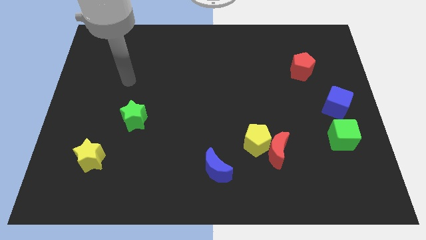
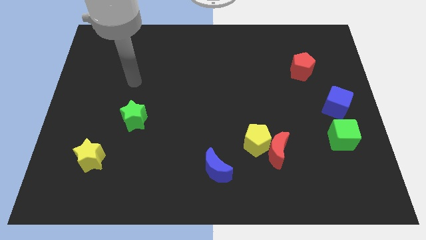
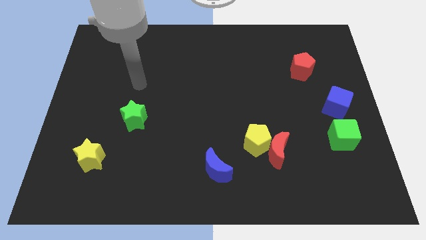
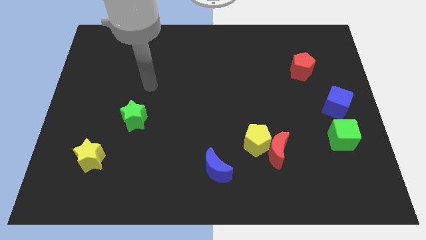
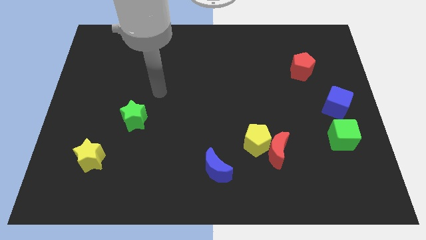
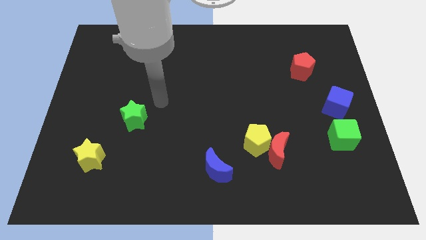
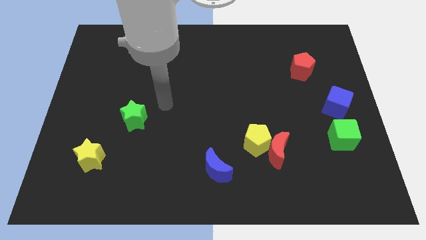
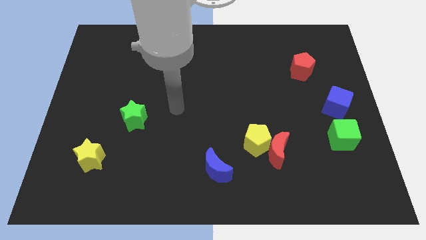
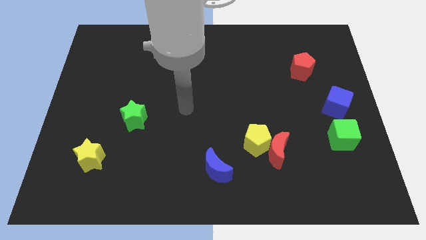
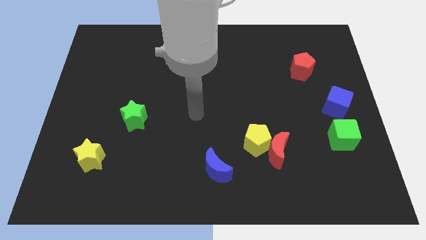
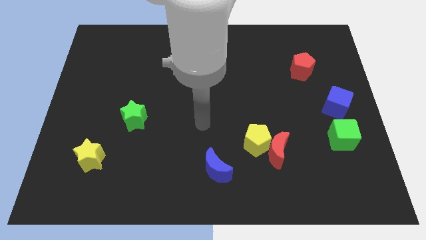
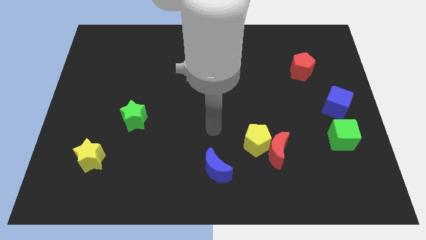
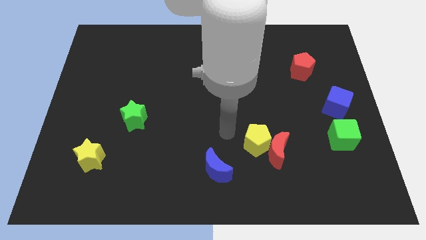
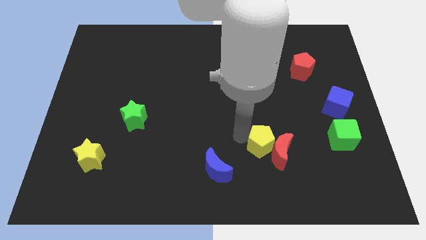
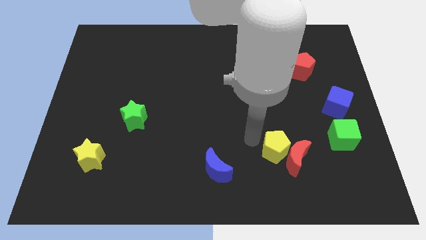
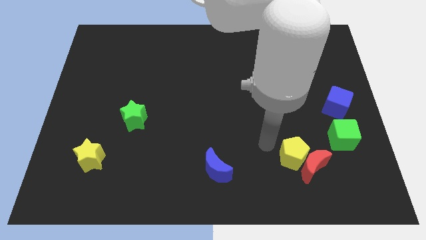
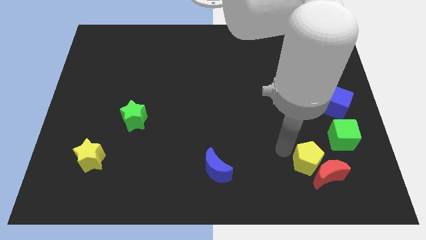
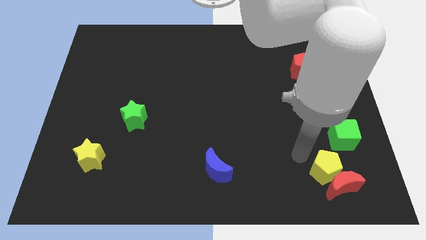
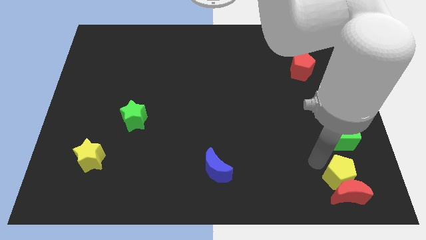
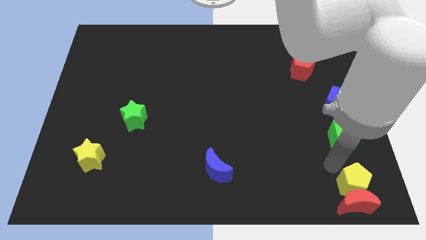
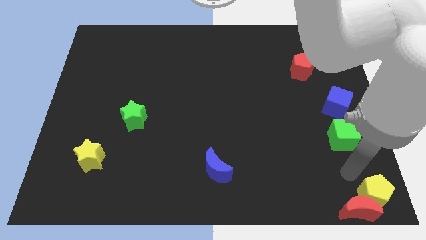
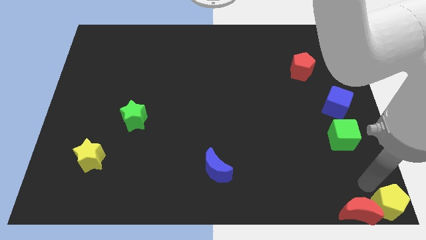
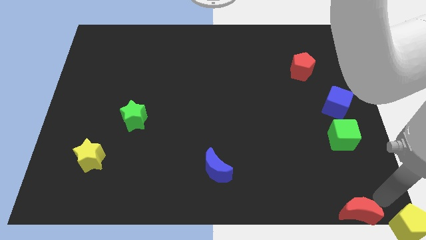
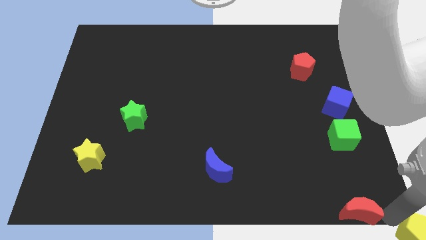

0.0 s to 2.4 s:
separate the red moon from the yellow pentagon

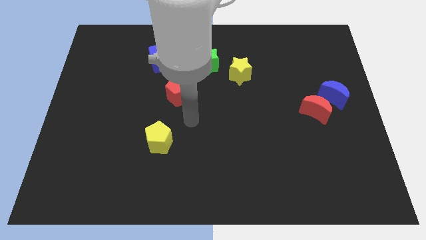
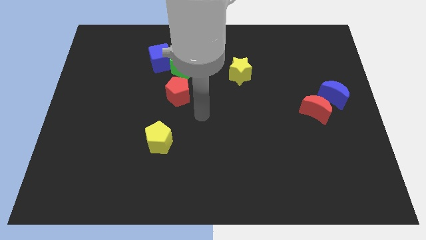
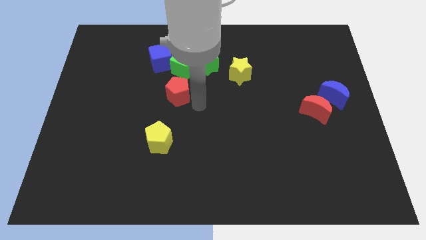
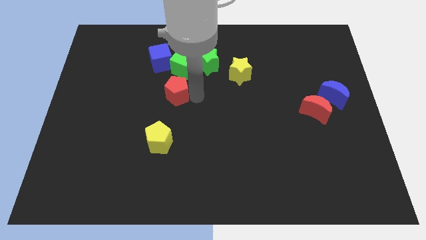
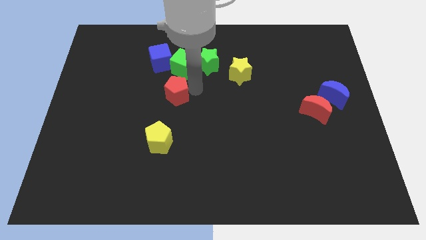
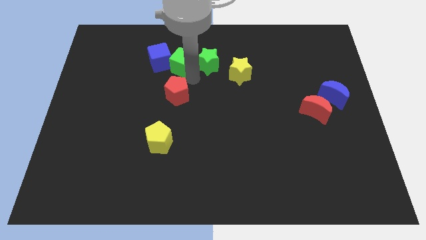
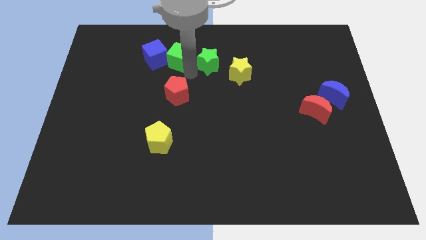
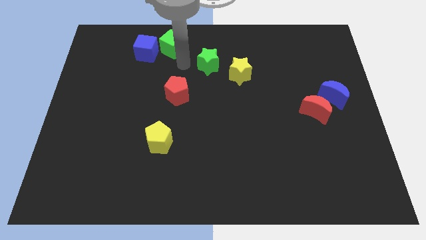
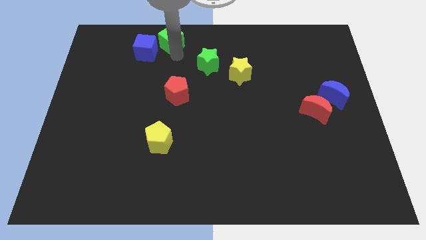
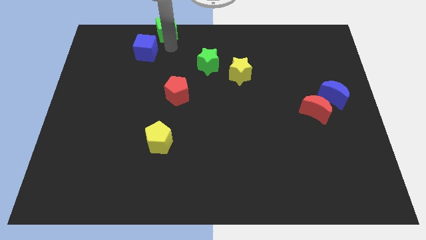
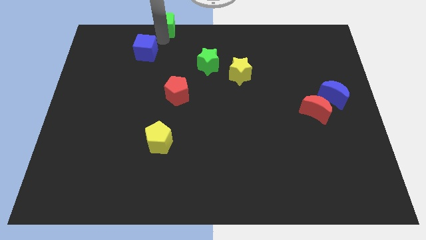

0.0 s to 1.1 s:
move the blue cube away from the green cube

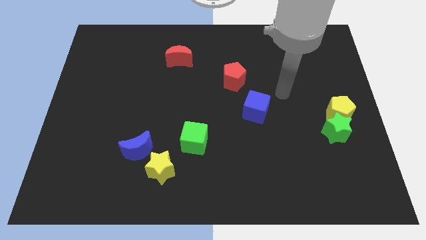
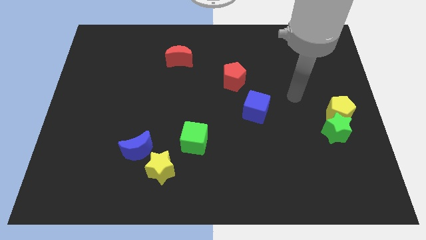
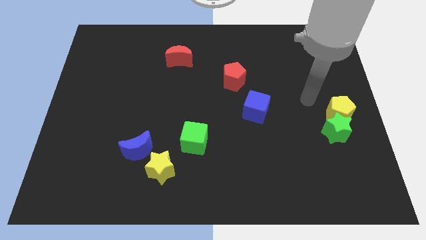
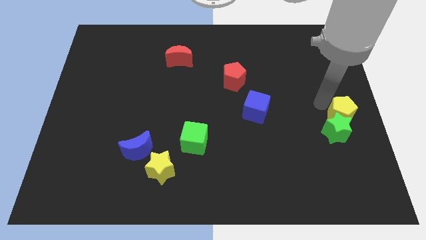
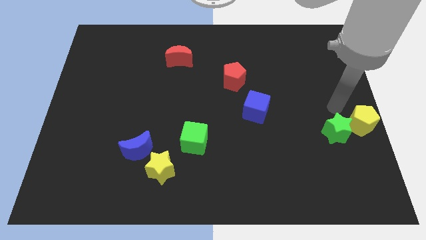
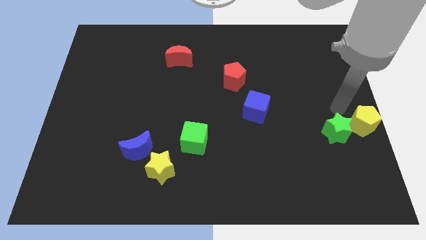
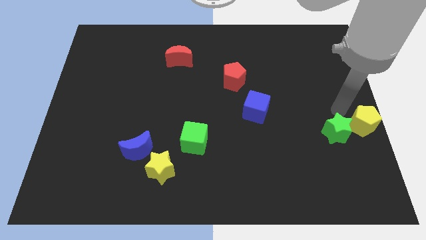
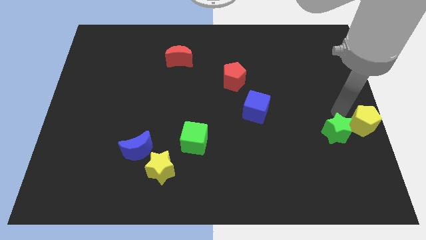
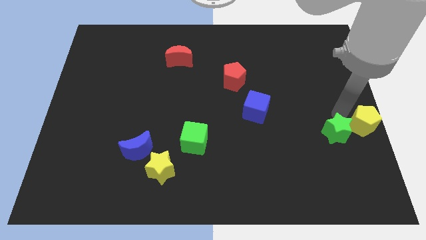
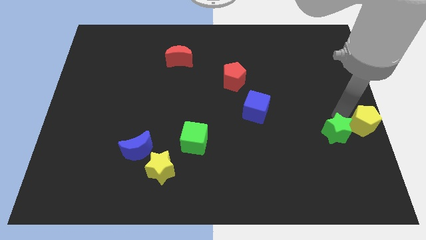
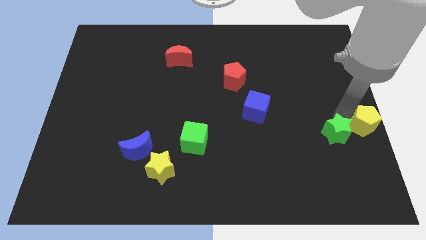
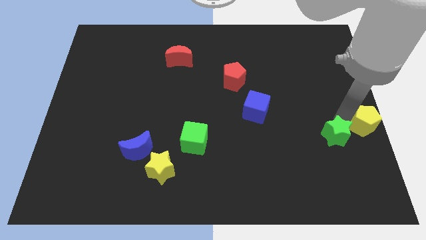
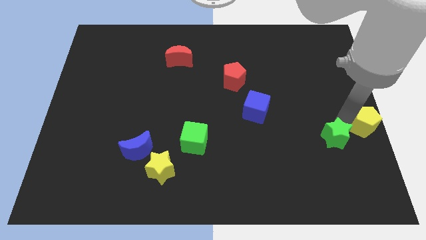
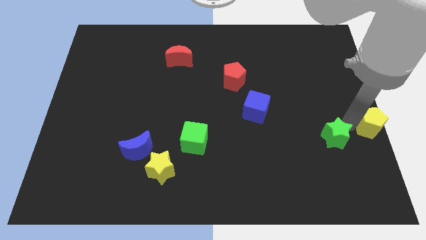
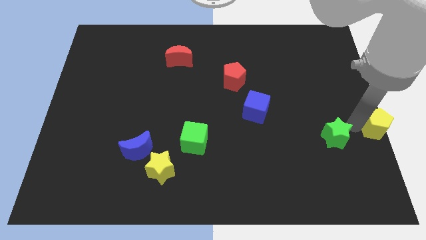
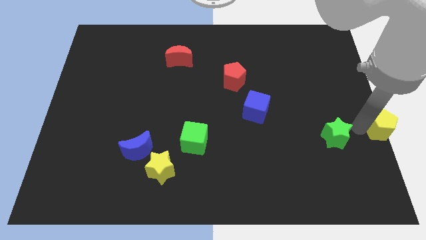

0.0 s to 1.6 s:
separate the green star from the yellow pentagon

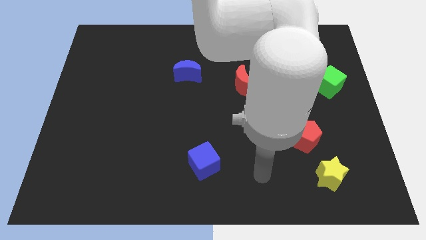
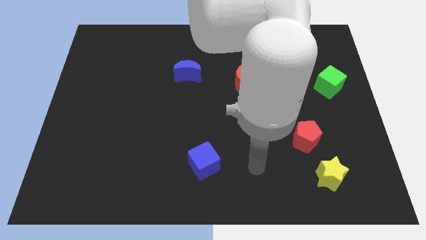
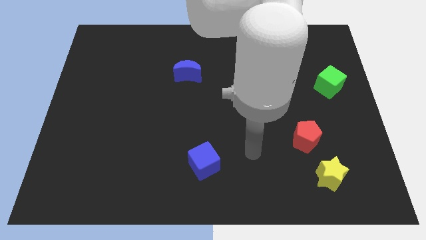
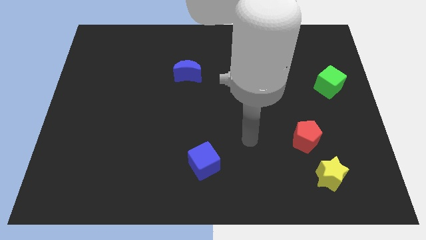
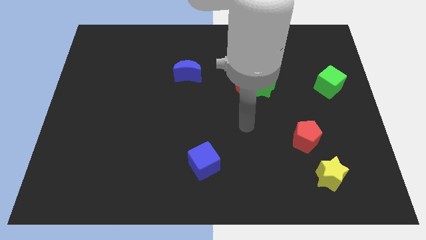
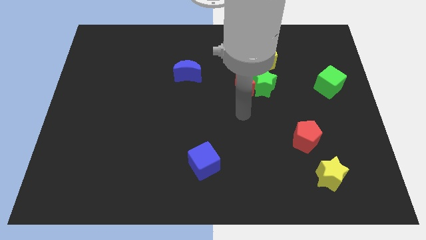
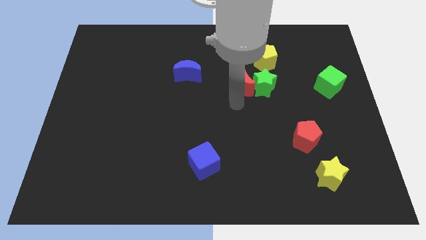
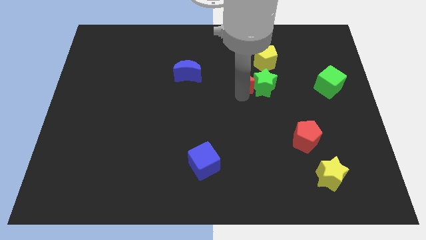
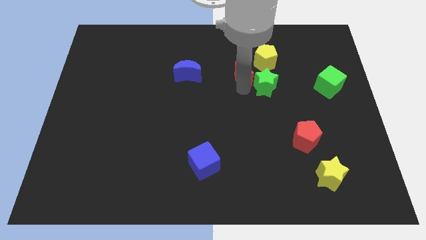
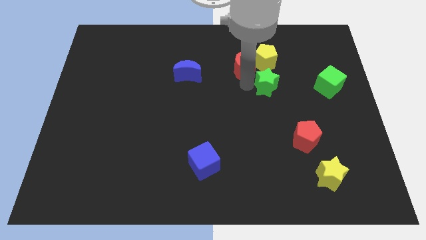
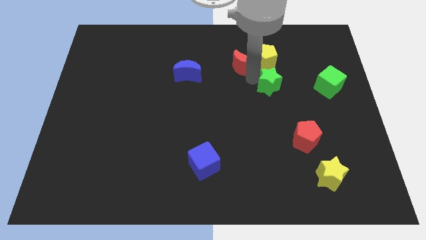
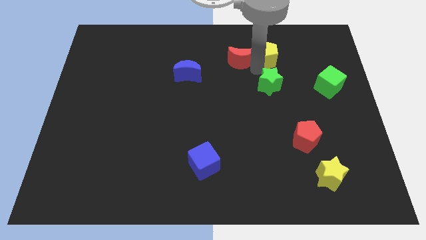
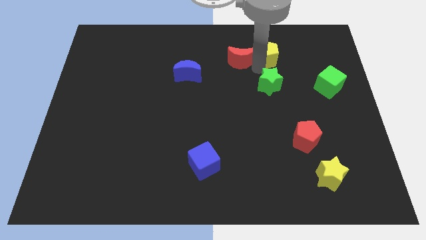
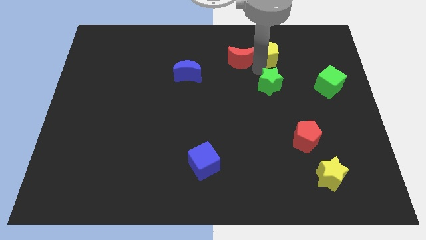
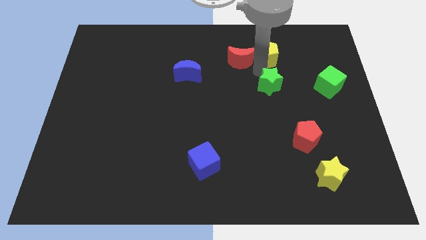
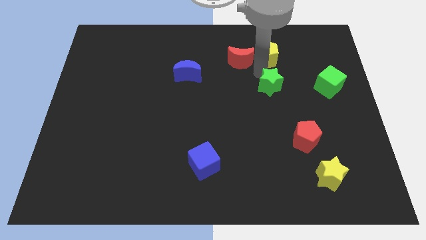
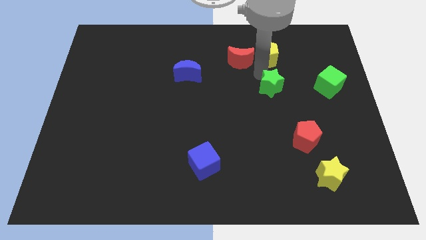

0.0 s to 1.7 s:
pull the green star apart from the red moon and yellow pentagon

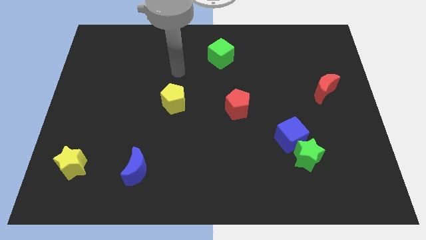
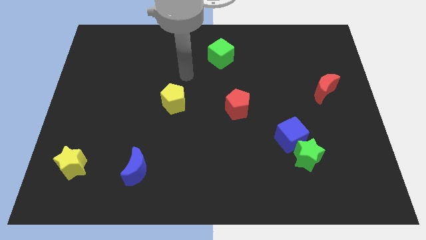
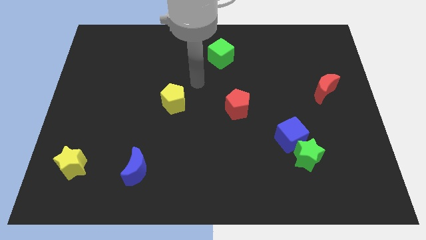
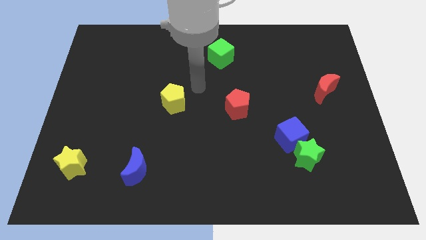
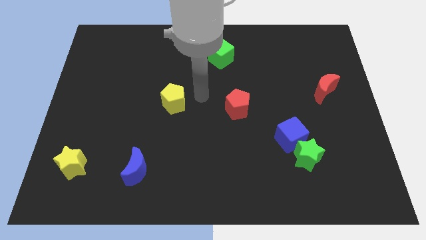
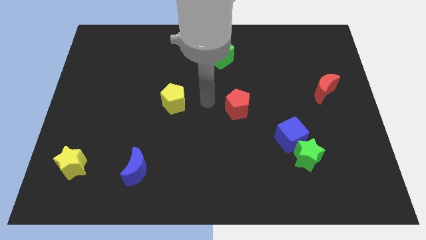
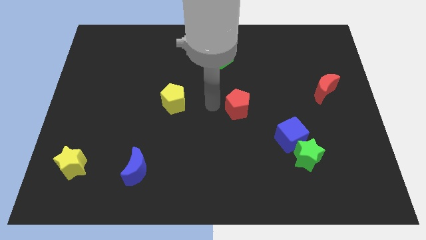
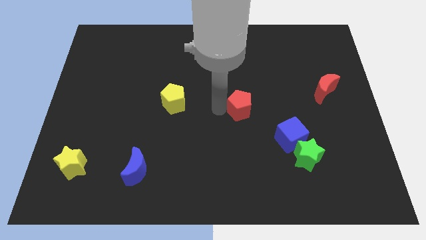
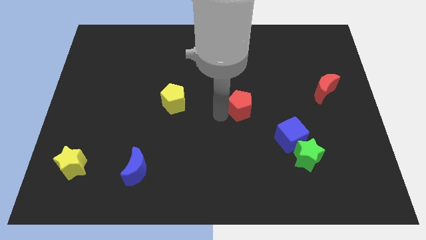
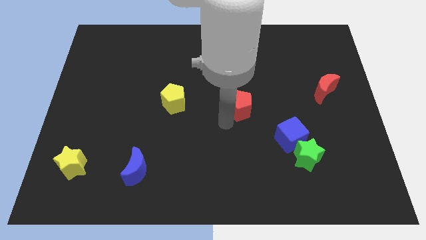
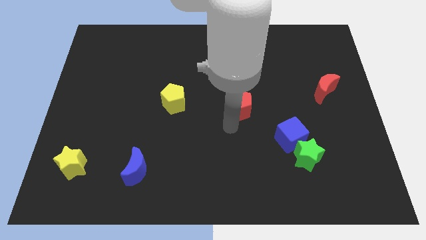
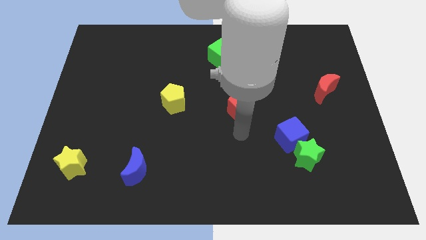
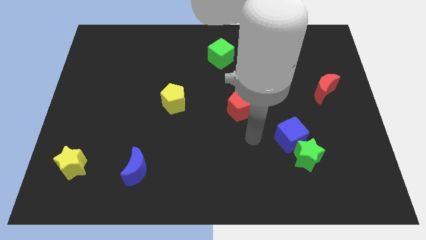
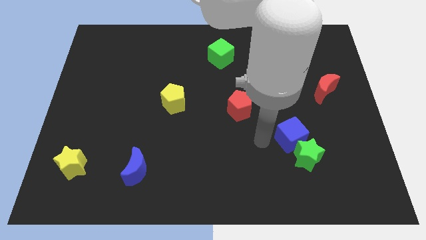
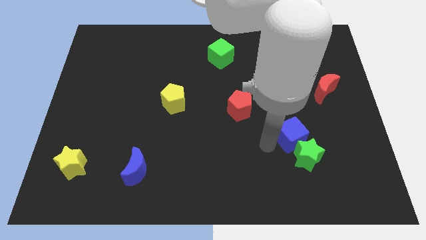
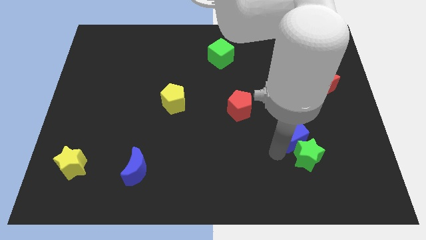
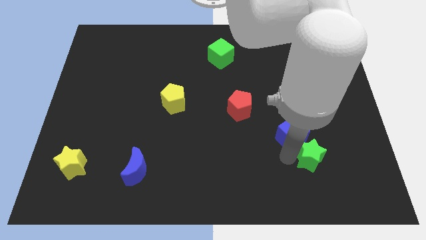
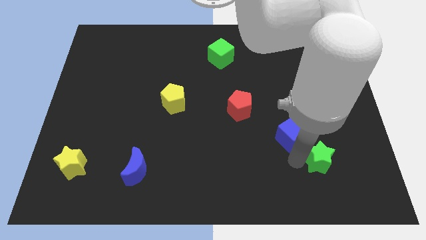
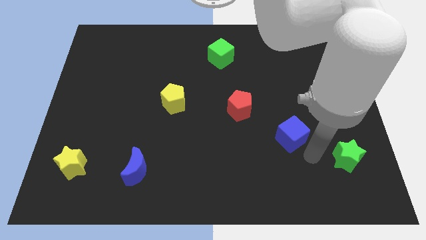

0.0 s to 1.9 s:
pull the blue cube apart from the green star

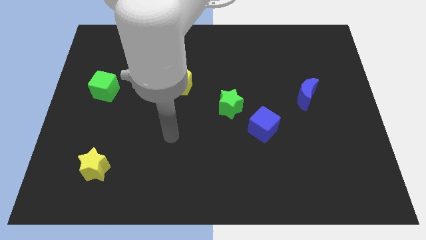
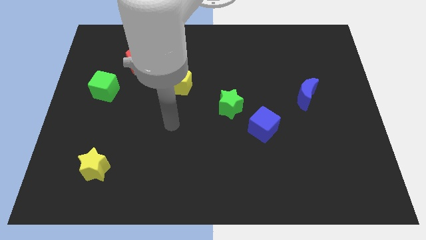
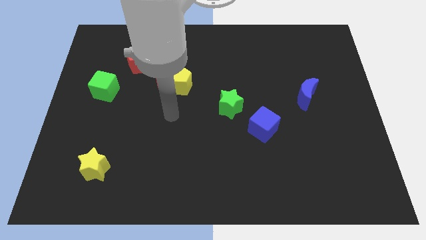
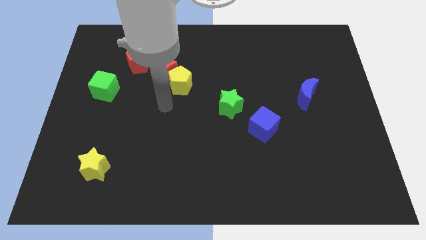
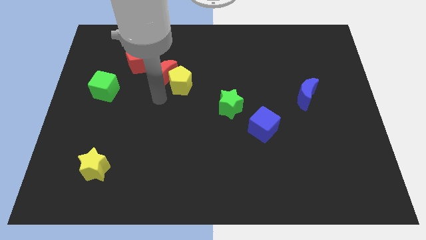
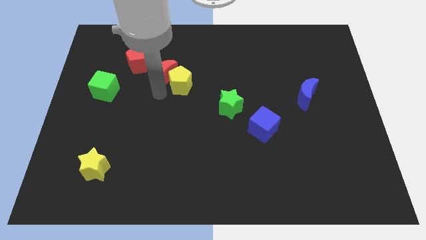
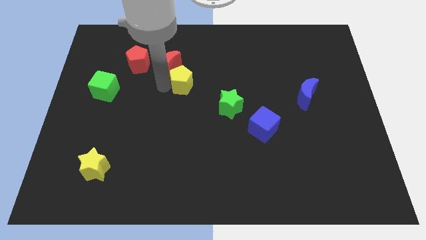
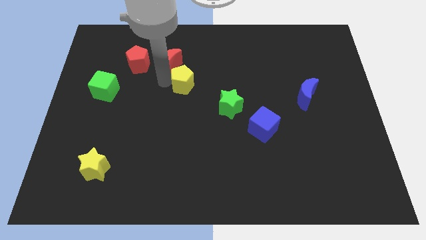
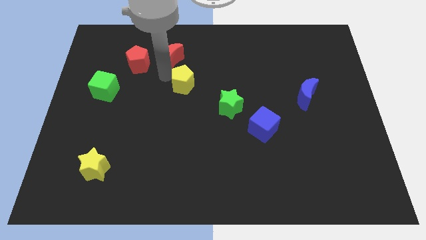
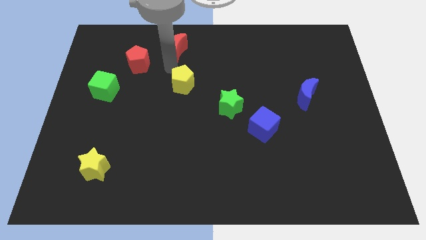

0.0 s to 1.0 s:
pull the yellow pentagon apart from the red moon
